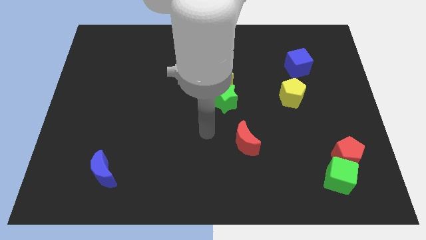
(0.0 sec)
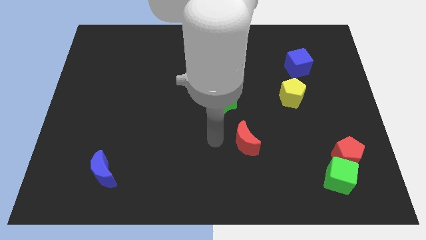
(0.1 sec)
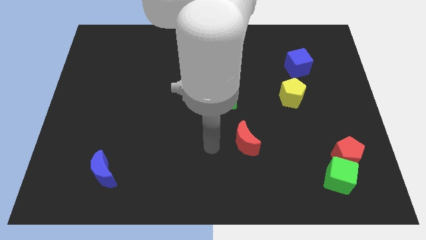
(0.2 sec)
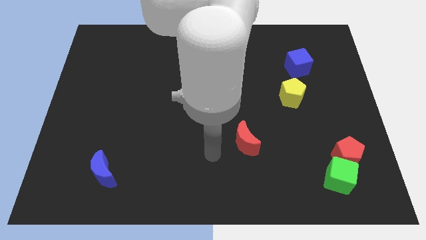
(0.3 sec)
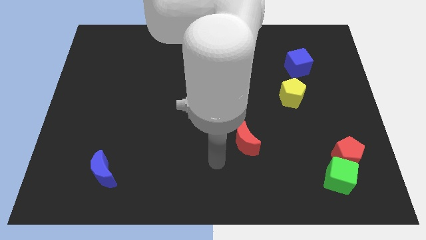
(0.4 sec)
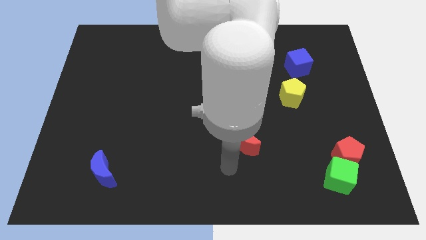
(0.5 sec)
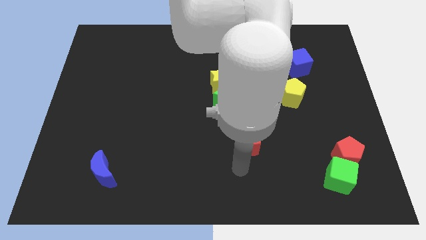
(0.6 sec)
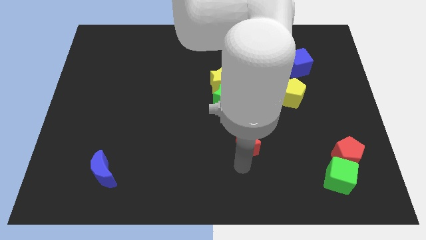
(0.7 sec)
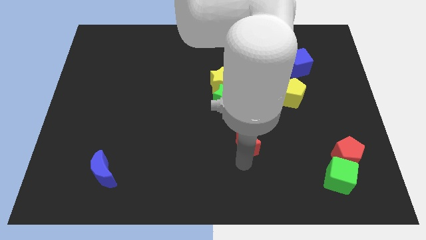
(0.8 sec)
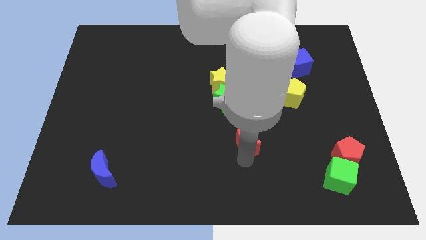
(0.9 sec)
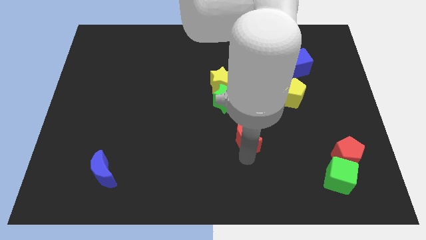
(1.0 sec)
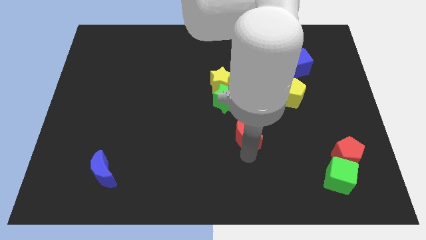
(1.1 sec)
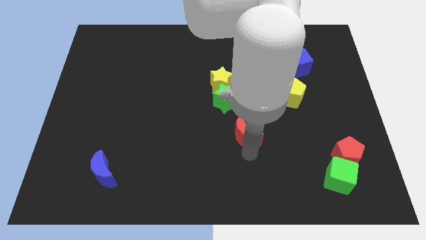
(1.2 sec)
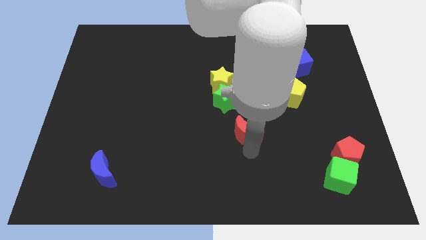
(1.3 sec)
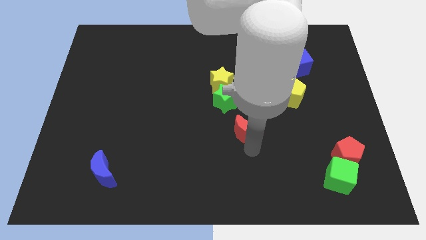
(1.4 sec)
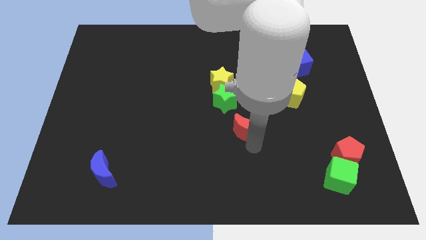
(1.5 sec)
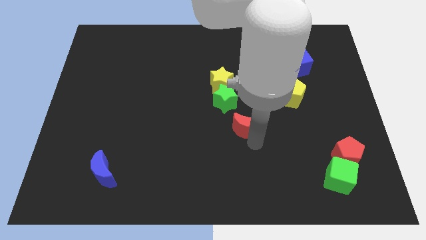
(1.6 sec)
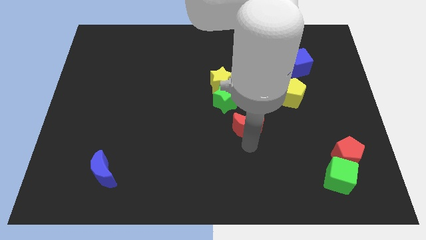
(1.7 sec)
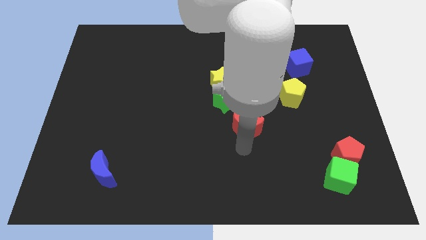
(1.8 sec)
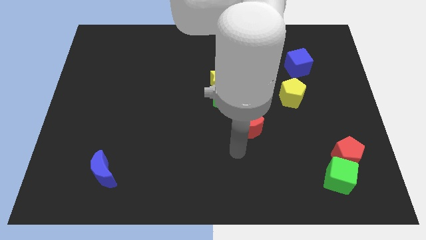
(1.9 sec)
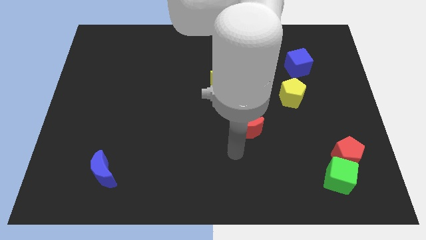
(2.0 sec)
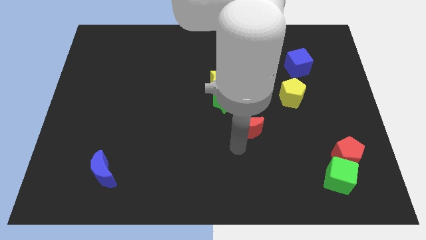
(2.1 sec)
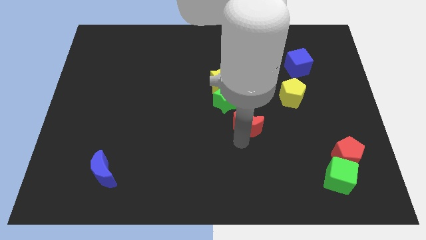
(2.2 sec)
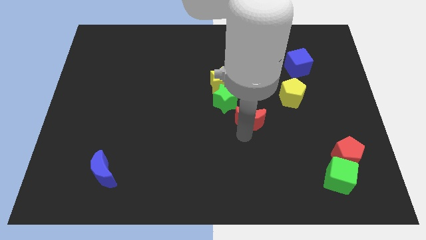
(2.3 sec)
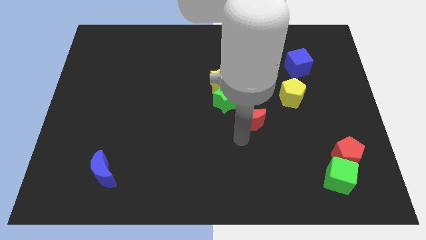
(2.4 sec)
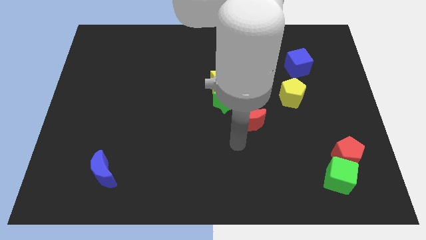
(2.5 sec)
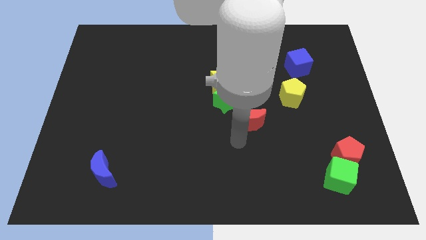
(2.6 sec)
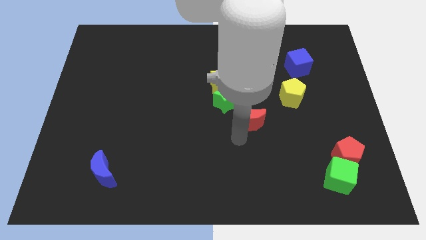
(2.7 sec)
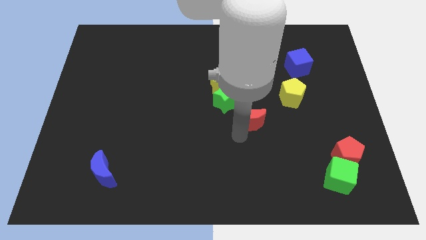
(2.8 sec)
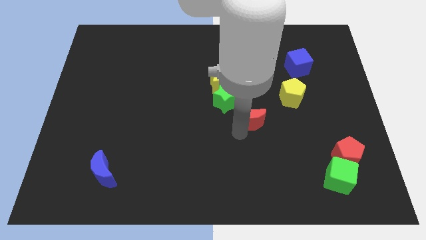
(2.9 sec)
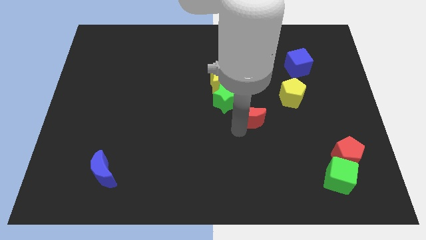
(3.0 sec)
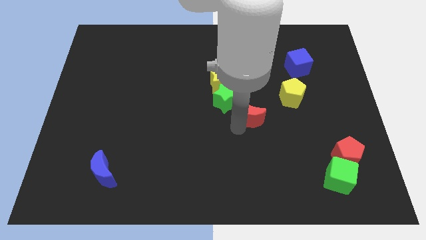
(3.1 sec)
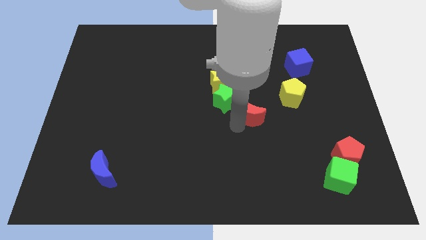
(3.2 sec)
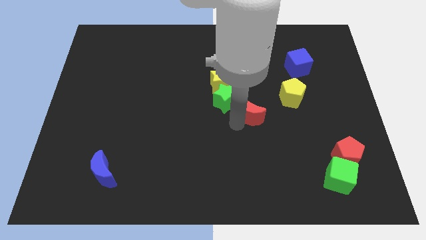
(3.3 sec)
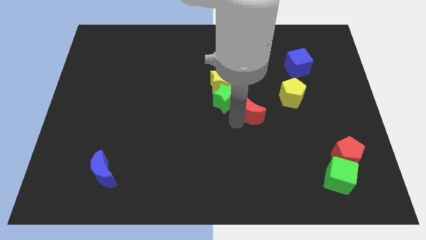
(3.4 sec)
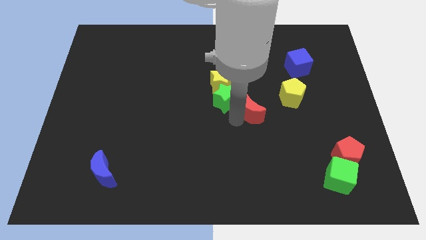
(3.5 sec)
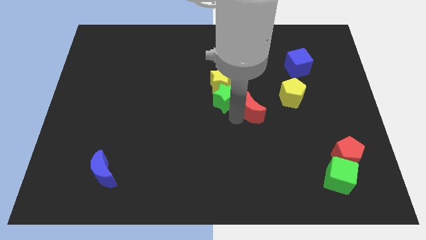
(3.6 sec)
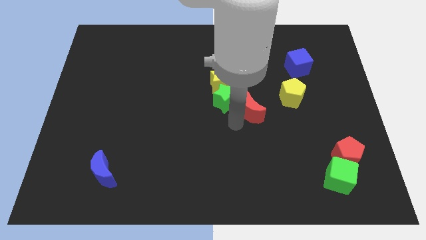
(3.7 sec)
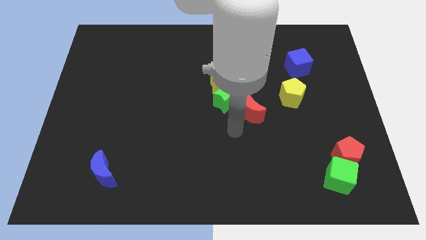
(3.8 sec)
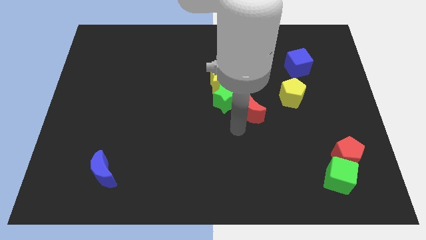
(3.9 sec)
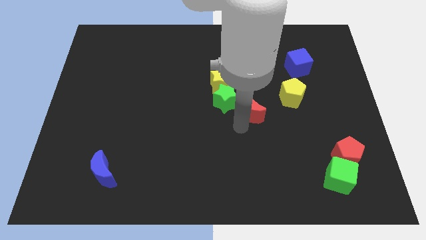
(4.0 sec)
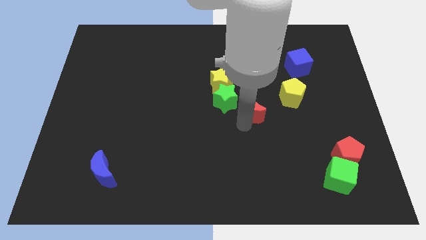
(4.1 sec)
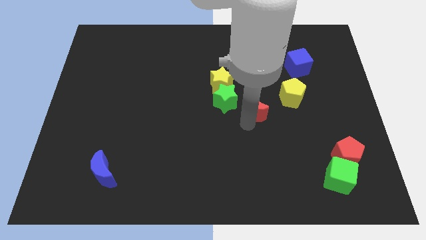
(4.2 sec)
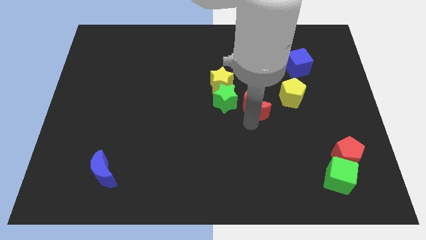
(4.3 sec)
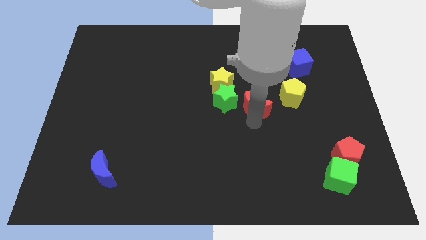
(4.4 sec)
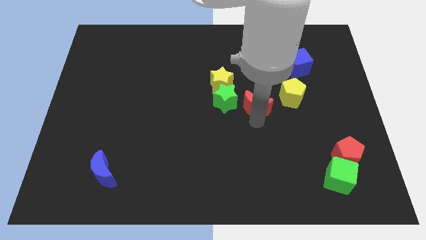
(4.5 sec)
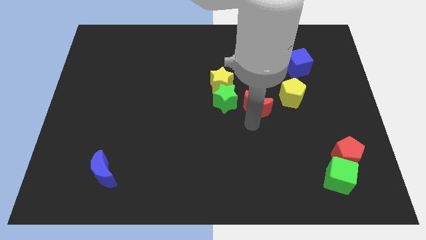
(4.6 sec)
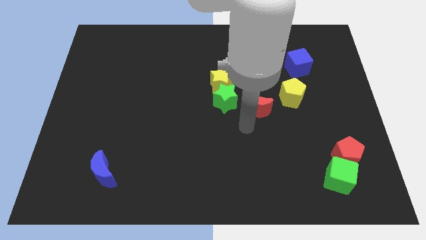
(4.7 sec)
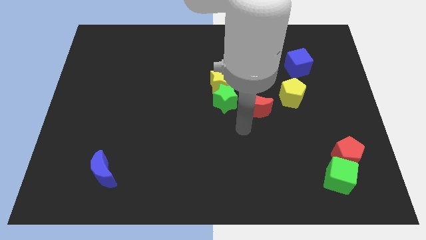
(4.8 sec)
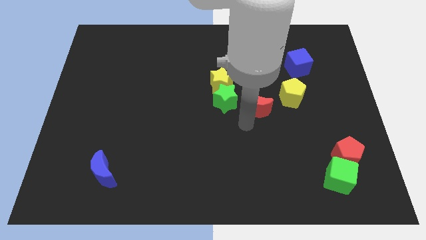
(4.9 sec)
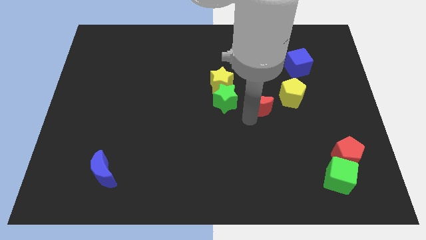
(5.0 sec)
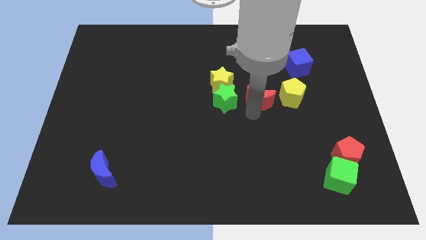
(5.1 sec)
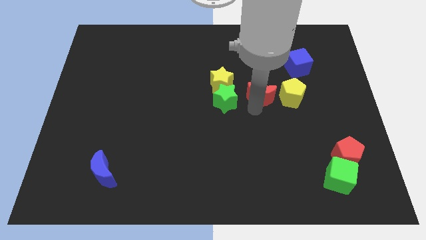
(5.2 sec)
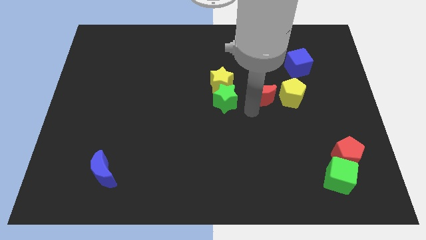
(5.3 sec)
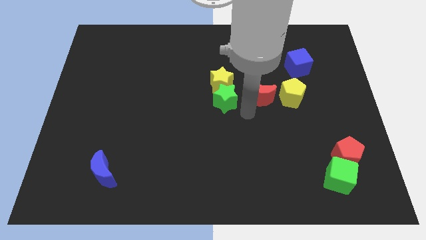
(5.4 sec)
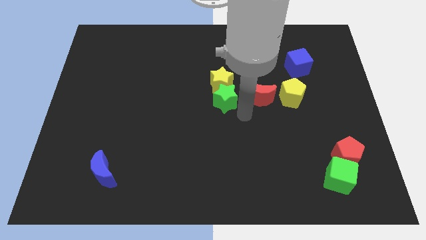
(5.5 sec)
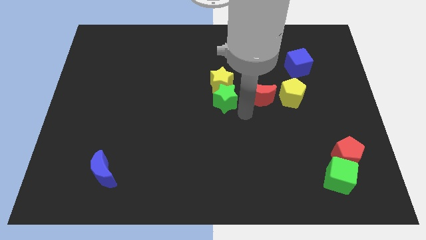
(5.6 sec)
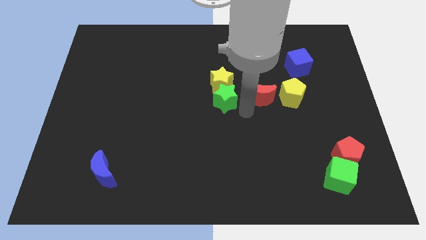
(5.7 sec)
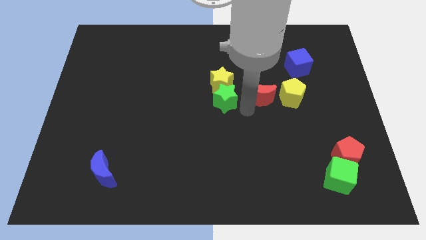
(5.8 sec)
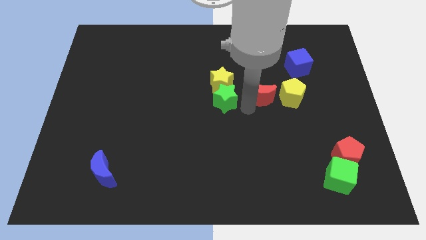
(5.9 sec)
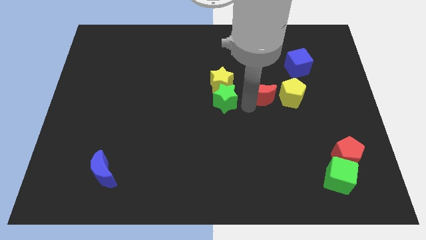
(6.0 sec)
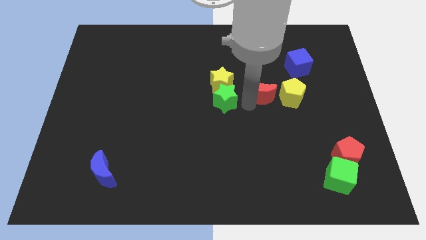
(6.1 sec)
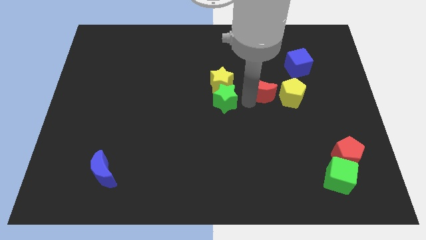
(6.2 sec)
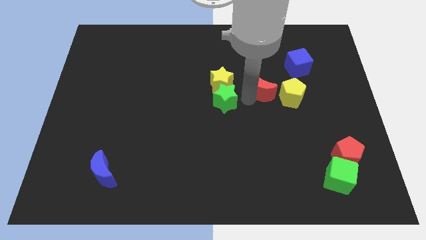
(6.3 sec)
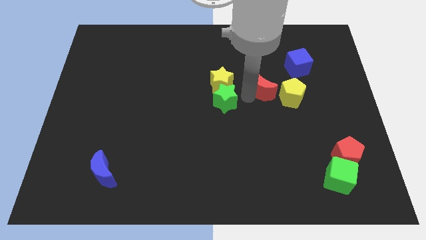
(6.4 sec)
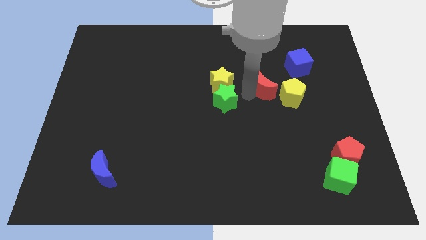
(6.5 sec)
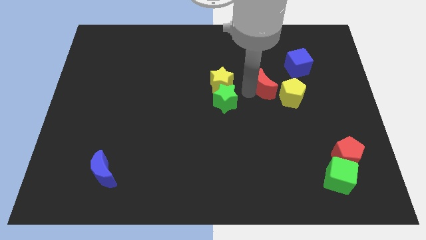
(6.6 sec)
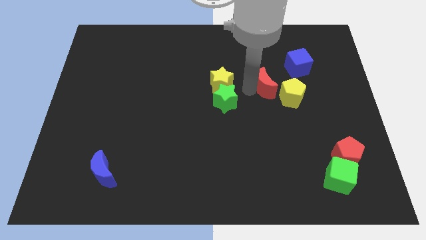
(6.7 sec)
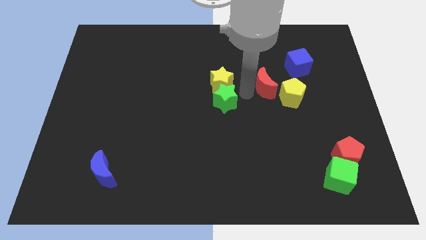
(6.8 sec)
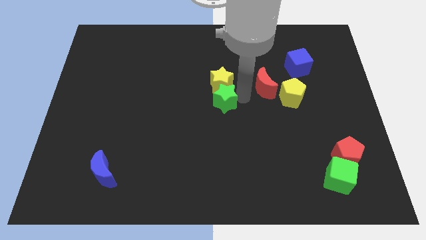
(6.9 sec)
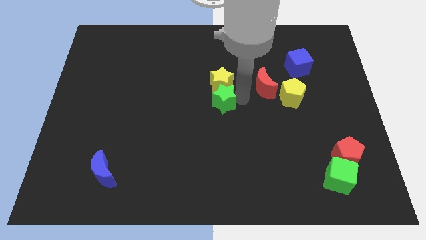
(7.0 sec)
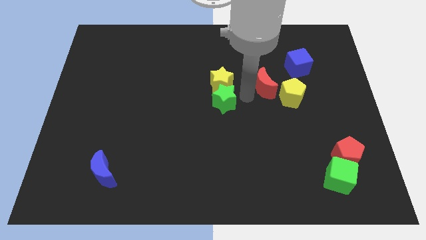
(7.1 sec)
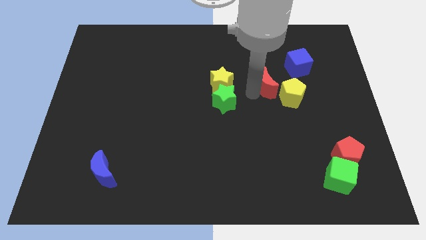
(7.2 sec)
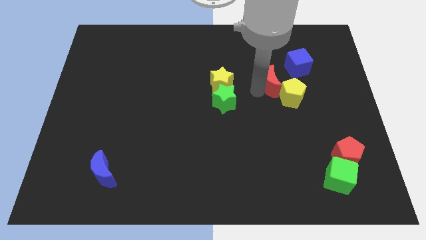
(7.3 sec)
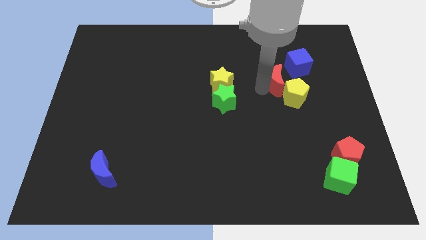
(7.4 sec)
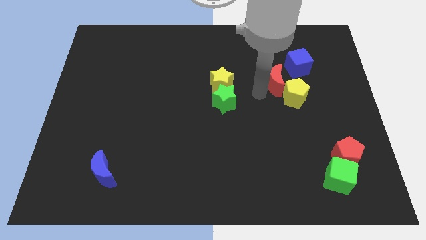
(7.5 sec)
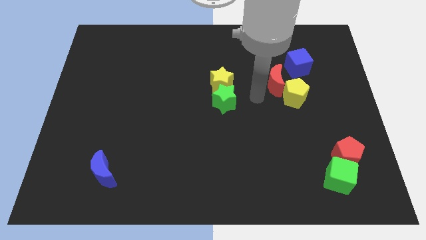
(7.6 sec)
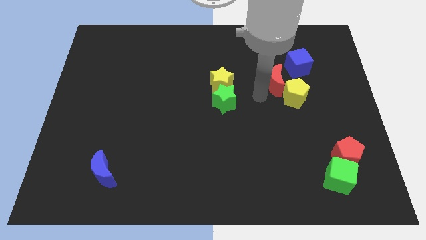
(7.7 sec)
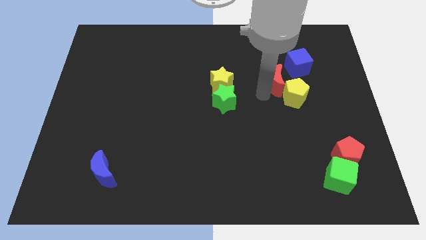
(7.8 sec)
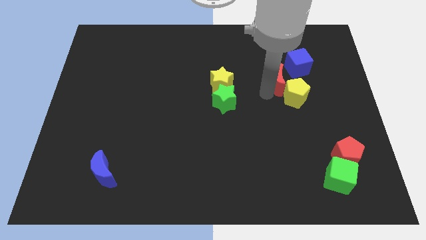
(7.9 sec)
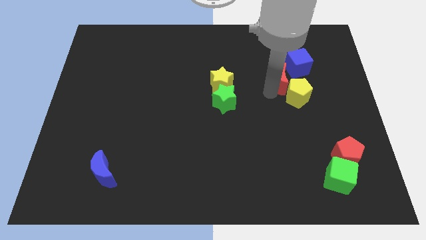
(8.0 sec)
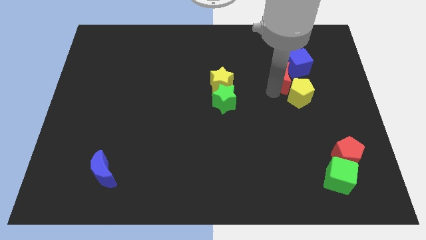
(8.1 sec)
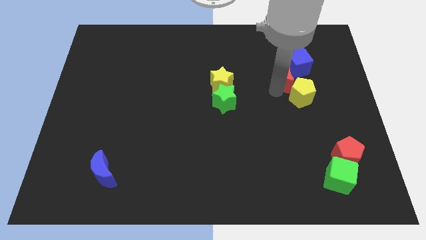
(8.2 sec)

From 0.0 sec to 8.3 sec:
push the red moon close to the blue cube
